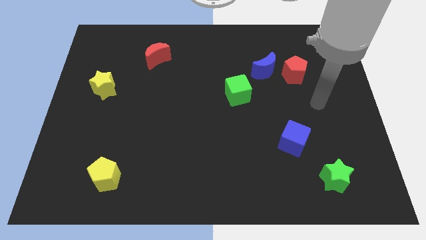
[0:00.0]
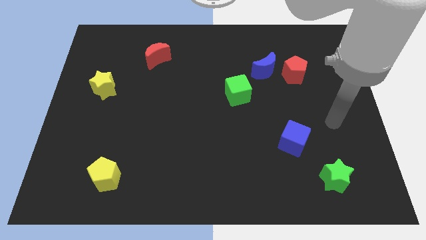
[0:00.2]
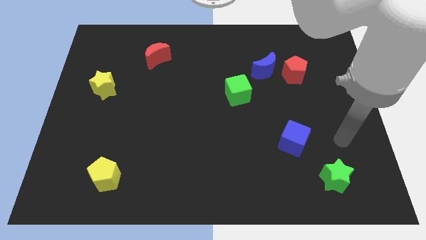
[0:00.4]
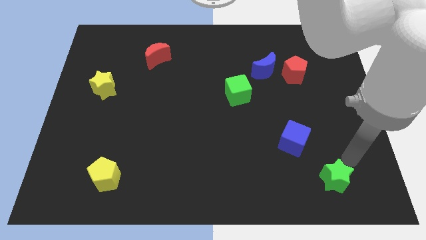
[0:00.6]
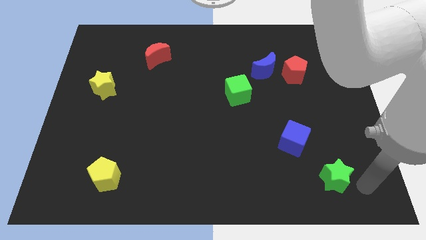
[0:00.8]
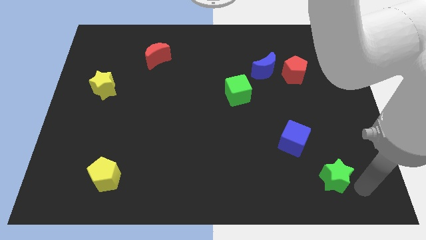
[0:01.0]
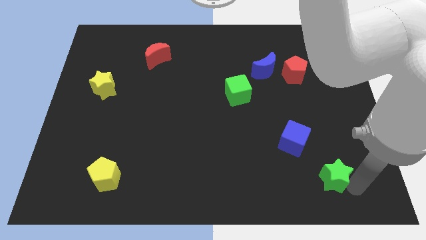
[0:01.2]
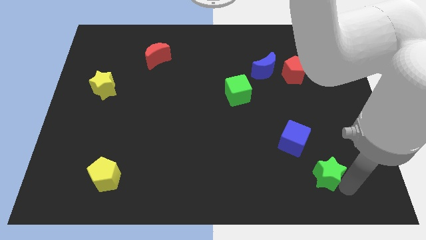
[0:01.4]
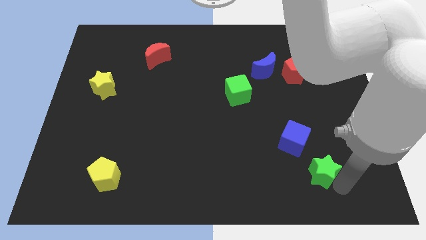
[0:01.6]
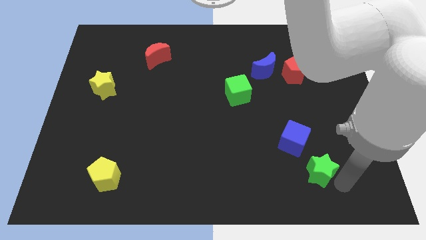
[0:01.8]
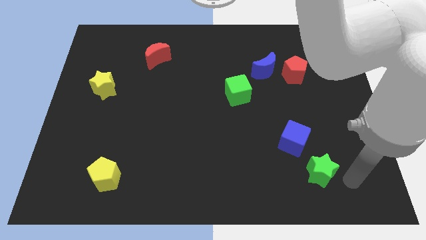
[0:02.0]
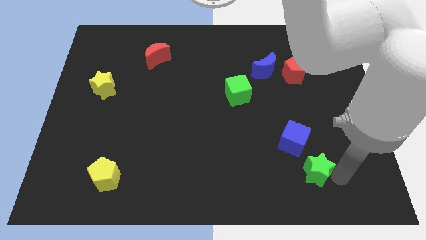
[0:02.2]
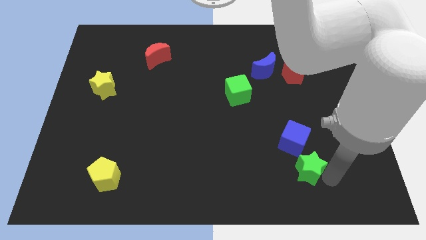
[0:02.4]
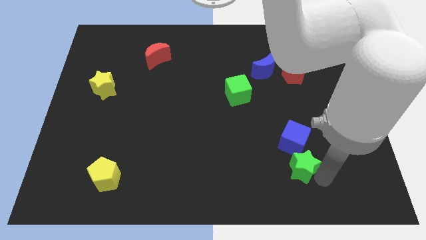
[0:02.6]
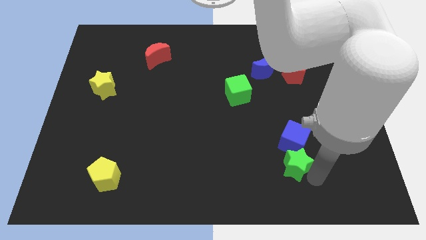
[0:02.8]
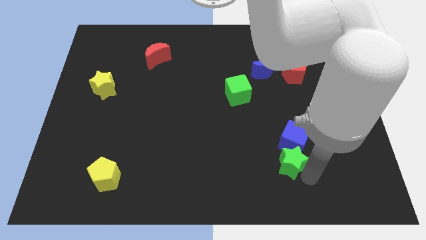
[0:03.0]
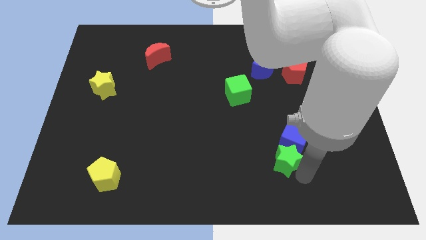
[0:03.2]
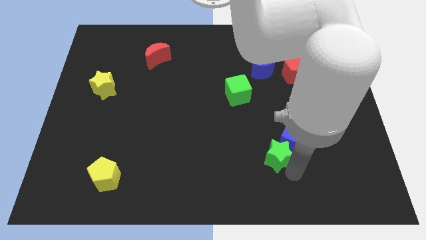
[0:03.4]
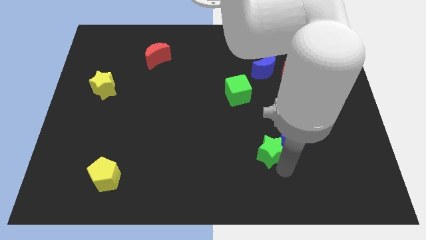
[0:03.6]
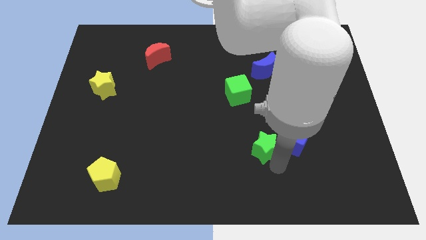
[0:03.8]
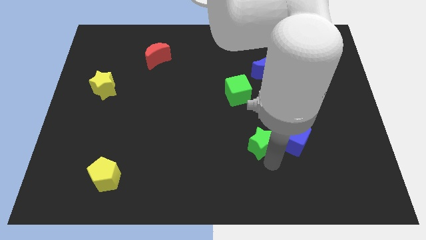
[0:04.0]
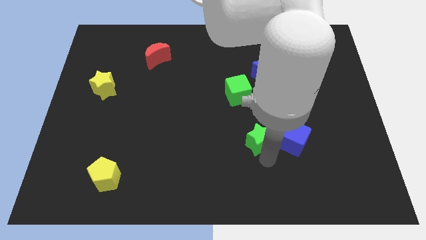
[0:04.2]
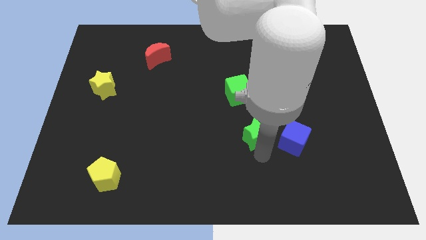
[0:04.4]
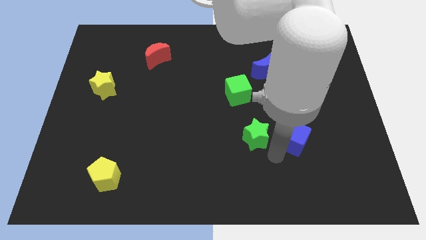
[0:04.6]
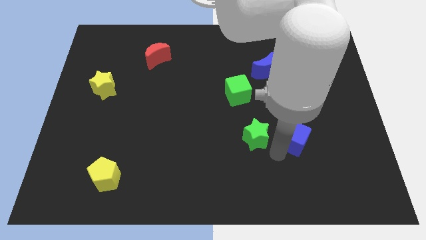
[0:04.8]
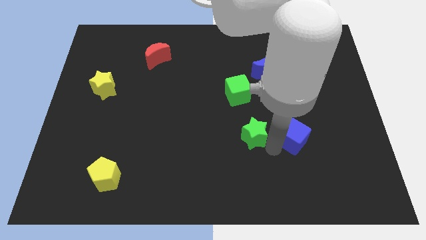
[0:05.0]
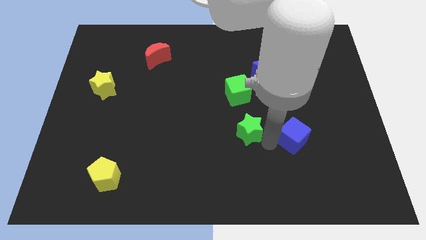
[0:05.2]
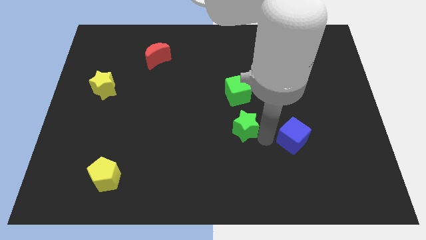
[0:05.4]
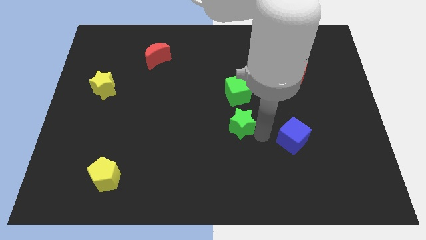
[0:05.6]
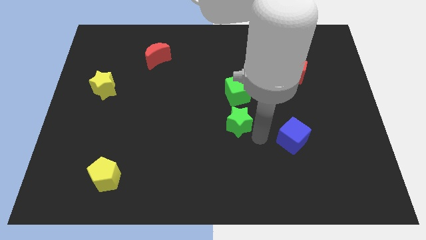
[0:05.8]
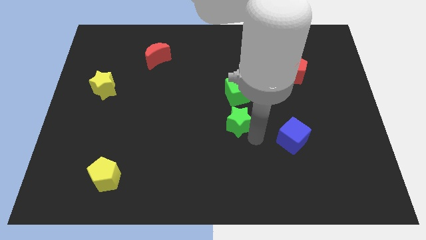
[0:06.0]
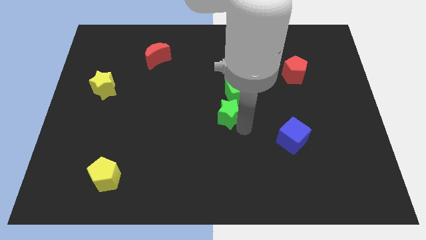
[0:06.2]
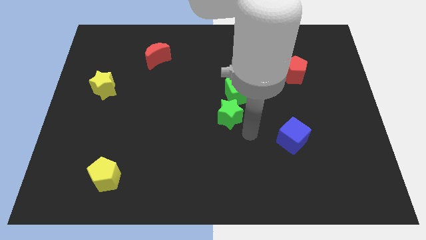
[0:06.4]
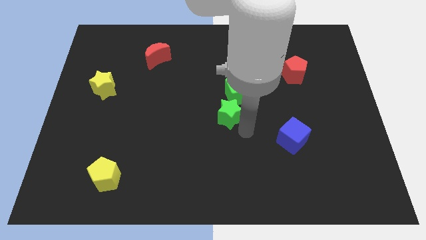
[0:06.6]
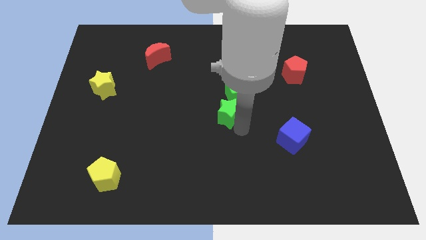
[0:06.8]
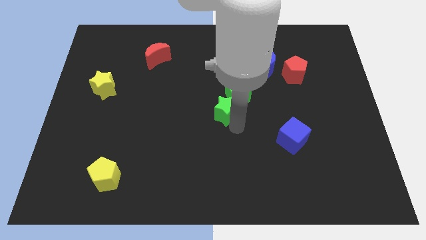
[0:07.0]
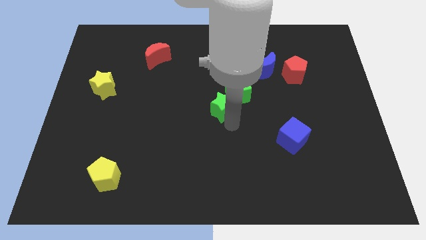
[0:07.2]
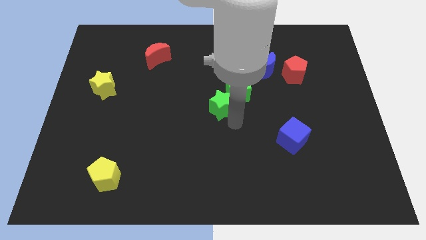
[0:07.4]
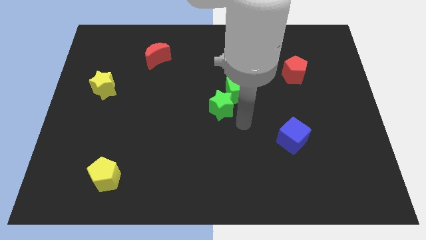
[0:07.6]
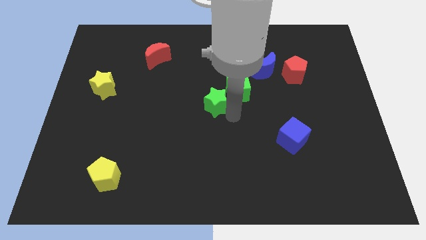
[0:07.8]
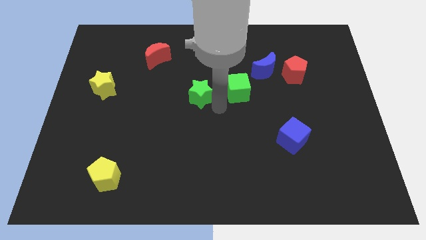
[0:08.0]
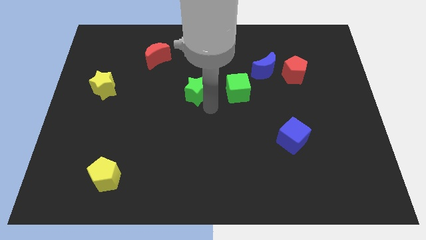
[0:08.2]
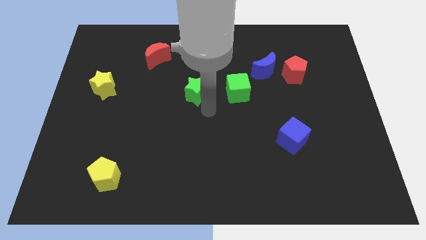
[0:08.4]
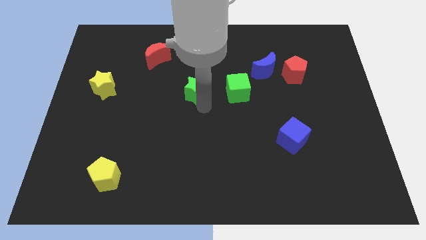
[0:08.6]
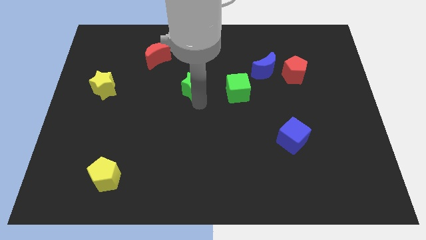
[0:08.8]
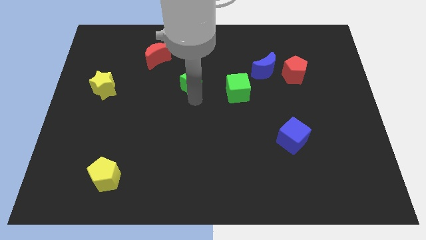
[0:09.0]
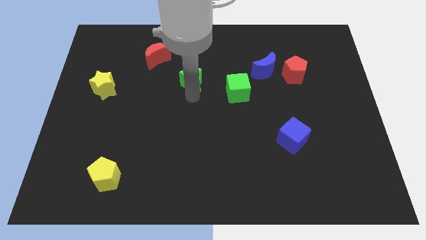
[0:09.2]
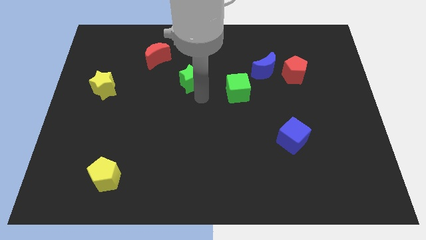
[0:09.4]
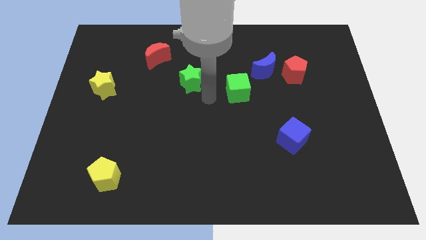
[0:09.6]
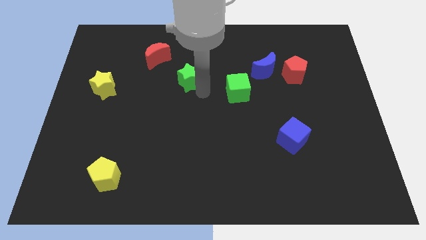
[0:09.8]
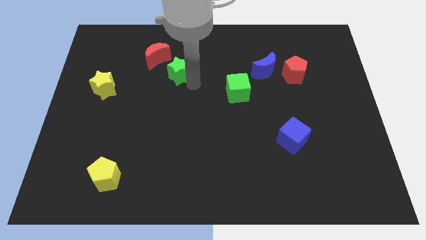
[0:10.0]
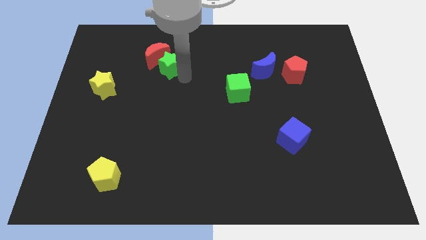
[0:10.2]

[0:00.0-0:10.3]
put the green star to the red moon

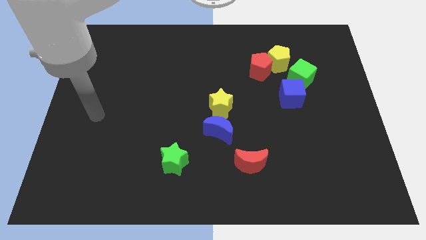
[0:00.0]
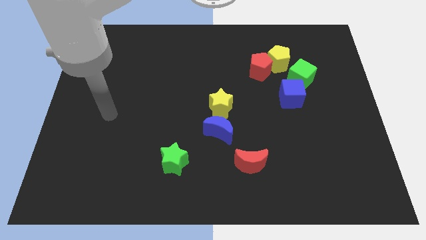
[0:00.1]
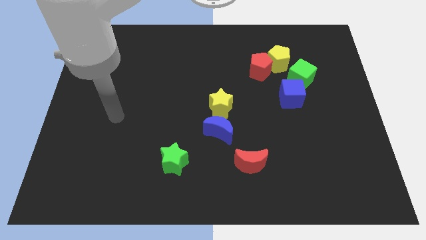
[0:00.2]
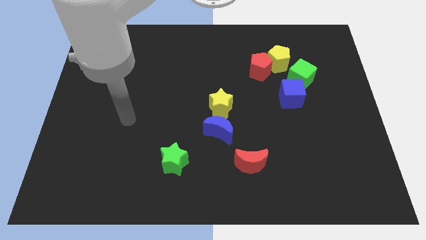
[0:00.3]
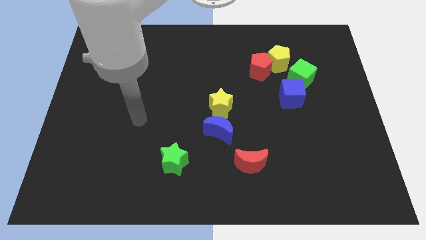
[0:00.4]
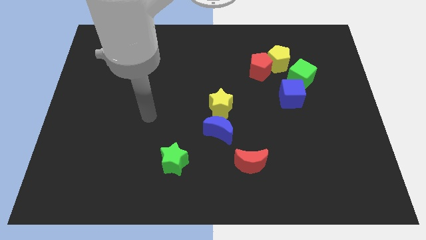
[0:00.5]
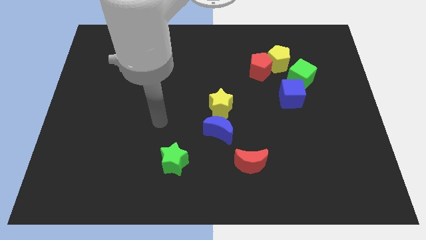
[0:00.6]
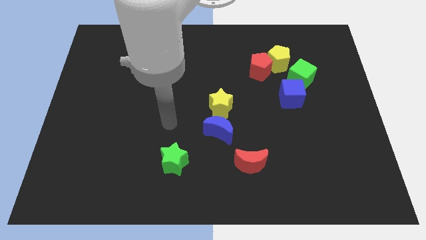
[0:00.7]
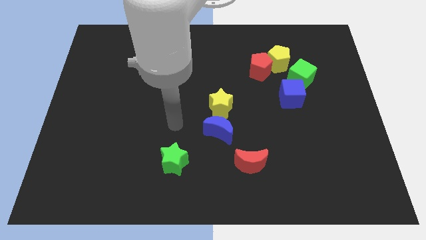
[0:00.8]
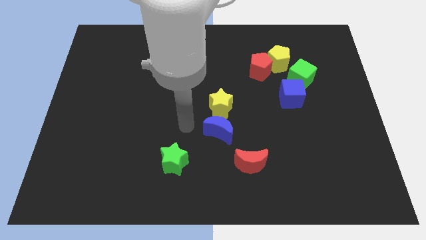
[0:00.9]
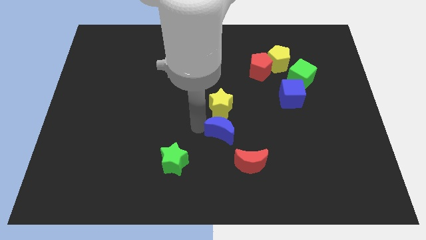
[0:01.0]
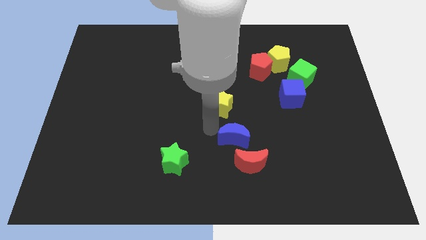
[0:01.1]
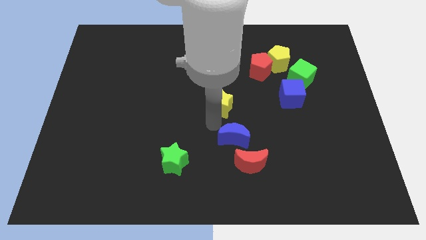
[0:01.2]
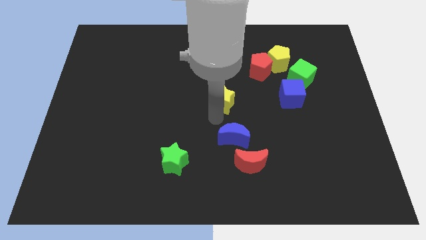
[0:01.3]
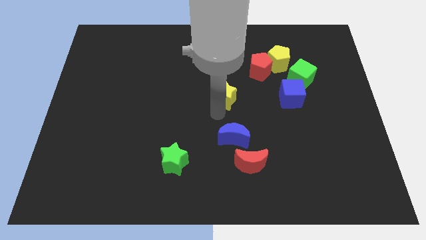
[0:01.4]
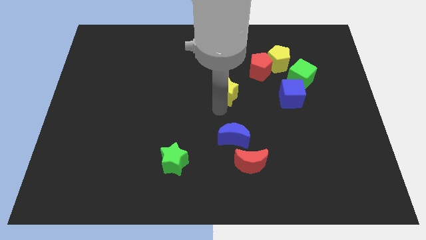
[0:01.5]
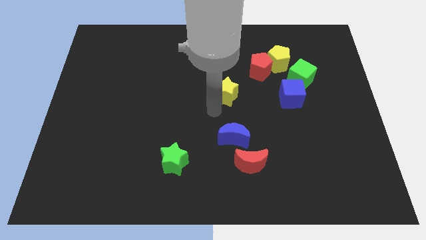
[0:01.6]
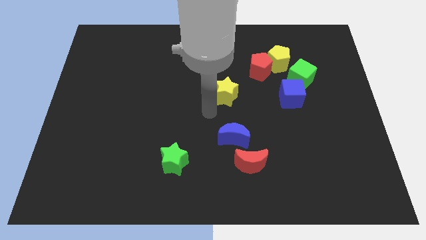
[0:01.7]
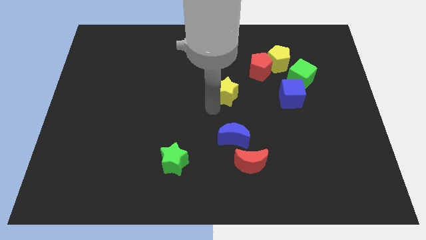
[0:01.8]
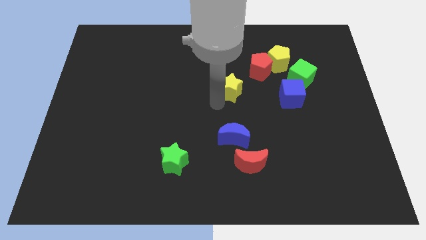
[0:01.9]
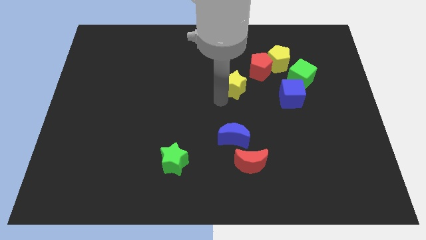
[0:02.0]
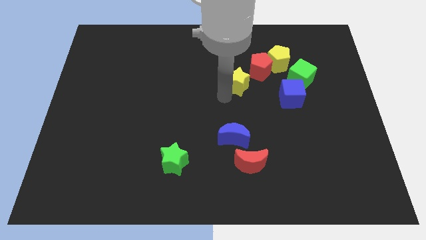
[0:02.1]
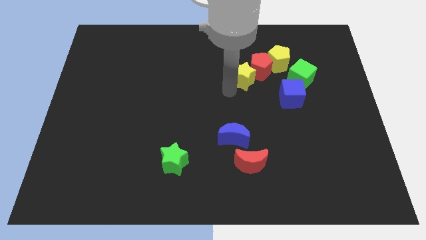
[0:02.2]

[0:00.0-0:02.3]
move the yellow star close to the red pentagon

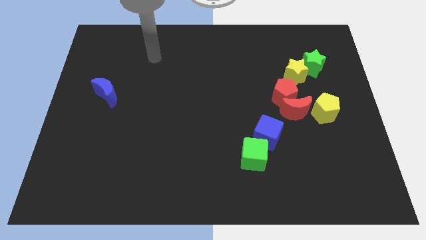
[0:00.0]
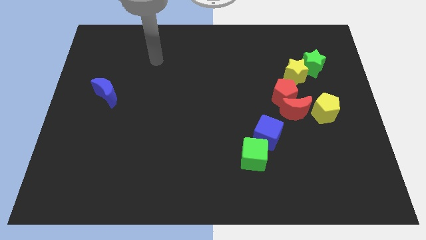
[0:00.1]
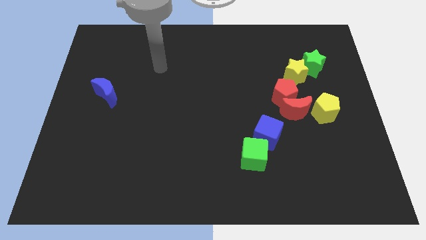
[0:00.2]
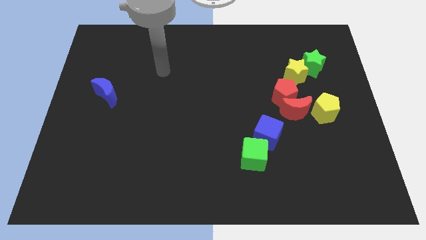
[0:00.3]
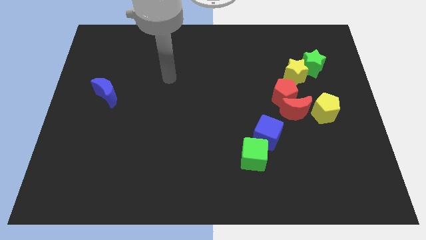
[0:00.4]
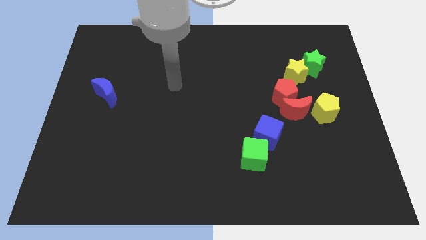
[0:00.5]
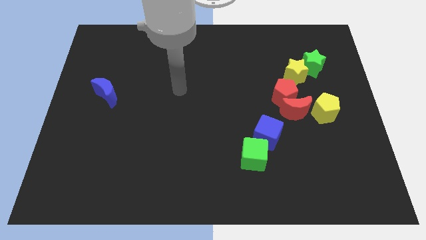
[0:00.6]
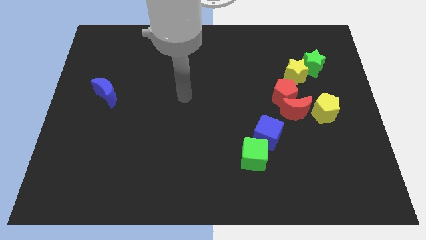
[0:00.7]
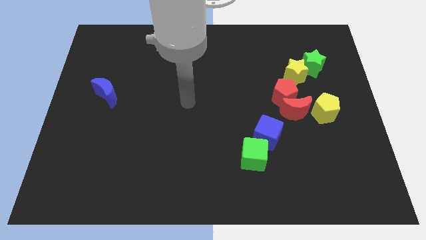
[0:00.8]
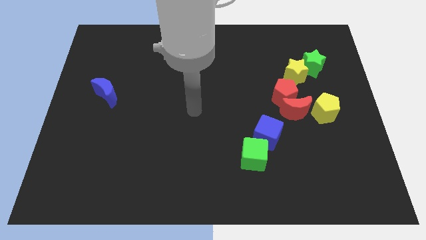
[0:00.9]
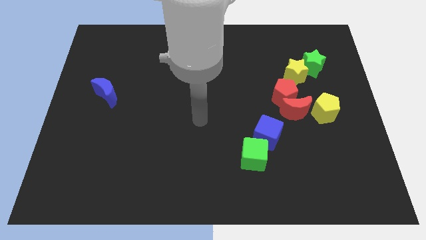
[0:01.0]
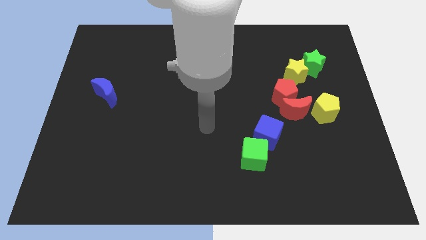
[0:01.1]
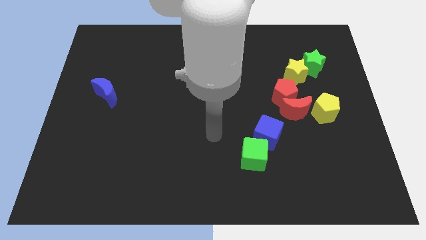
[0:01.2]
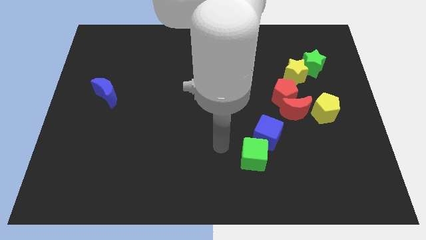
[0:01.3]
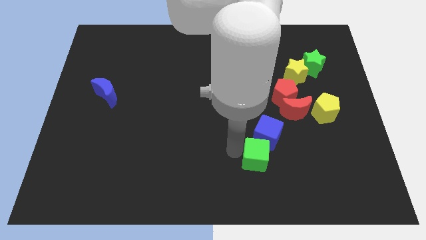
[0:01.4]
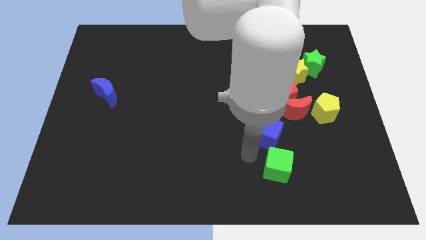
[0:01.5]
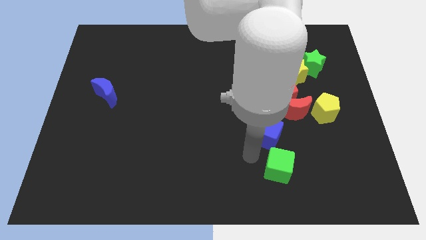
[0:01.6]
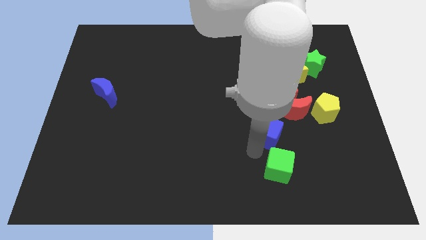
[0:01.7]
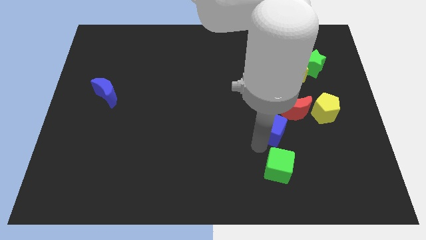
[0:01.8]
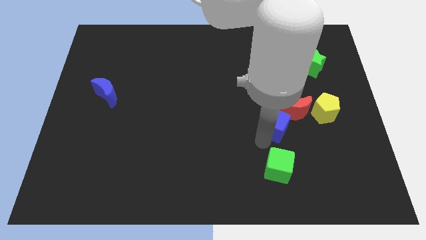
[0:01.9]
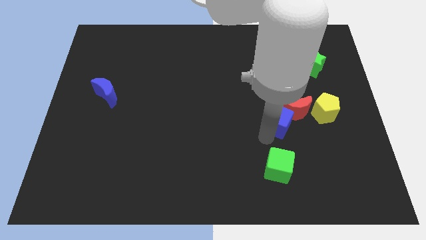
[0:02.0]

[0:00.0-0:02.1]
push the blue cube towards the red moon
